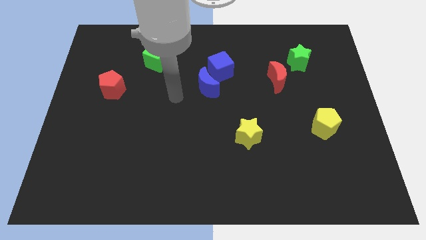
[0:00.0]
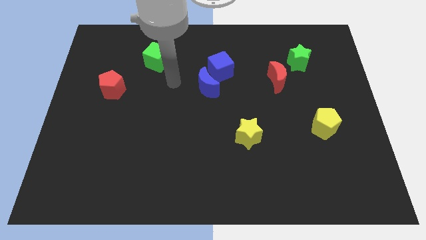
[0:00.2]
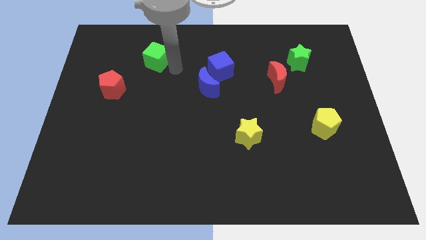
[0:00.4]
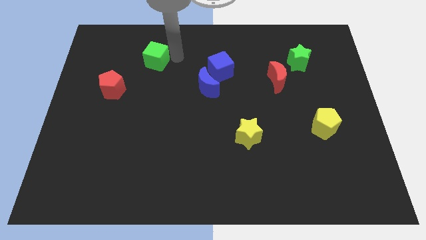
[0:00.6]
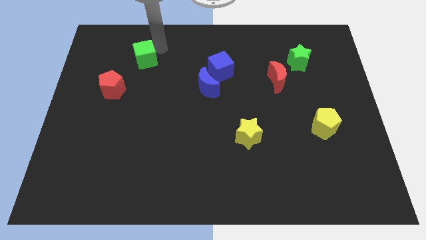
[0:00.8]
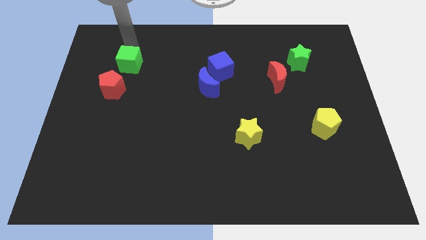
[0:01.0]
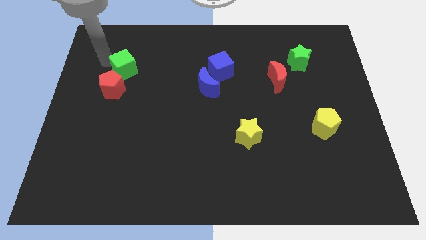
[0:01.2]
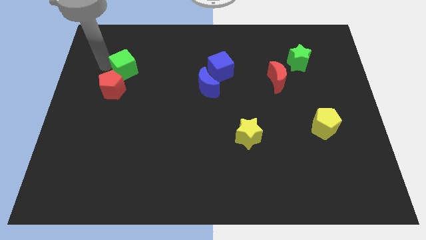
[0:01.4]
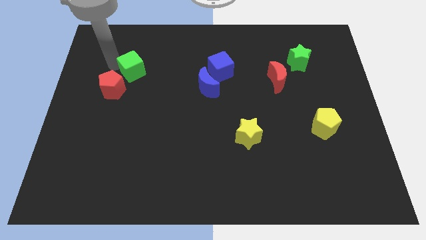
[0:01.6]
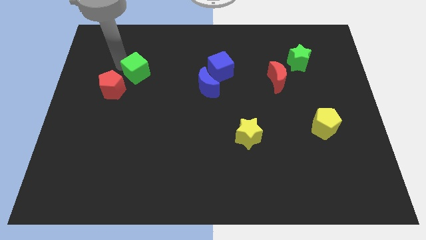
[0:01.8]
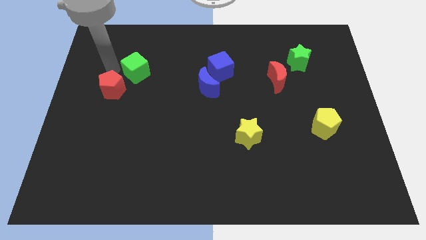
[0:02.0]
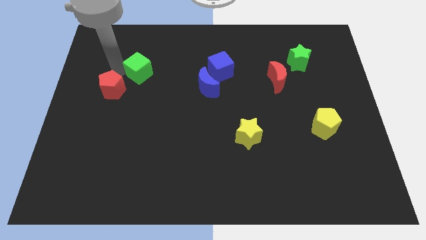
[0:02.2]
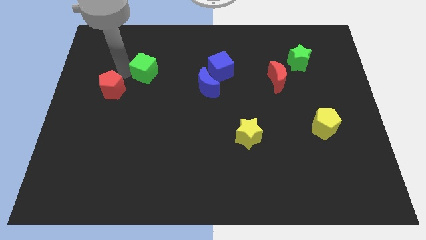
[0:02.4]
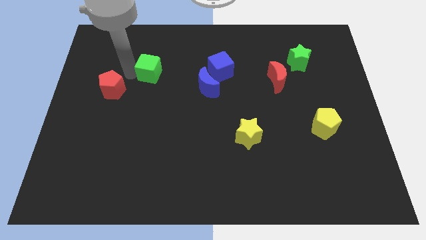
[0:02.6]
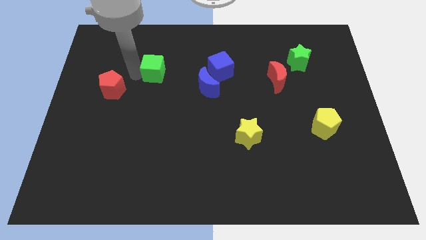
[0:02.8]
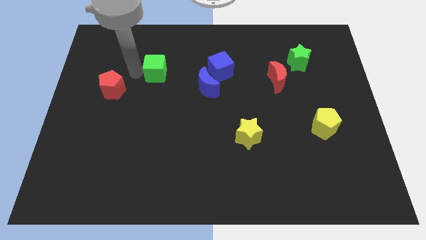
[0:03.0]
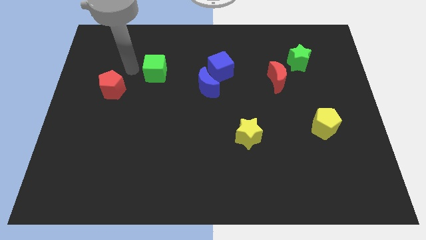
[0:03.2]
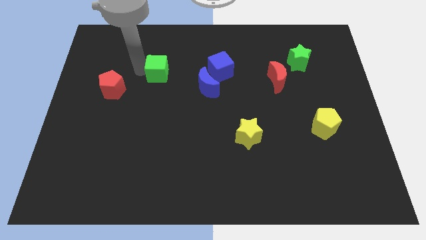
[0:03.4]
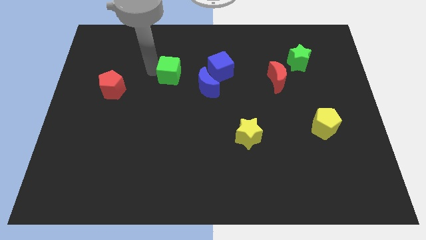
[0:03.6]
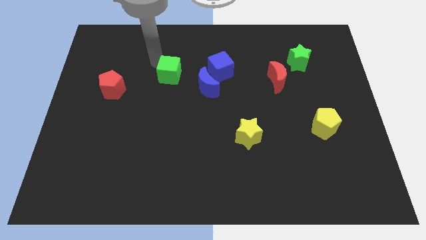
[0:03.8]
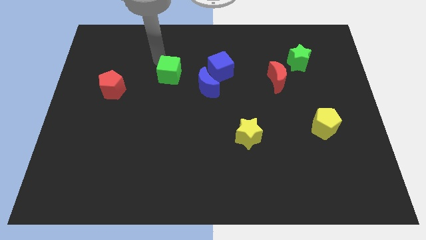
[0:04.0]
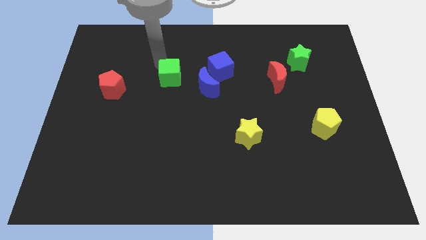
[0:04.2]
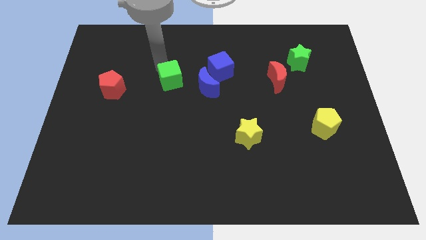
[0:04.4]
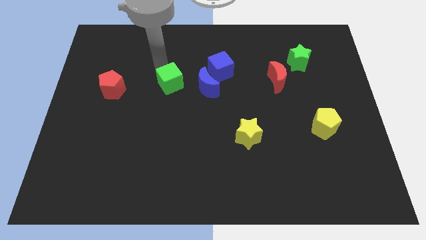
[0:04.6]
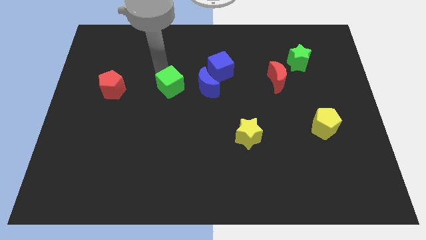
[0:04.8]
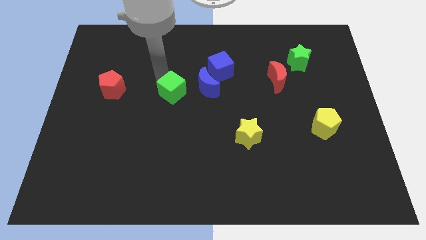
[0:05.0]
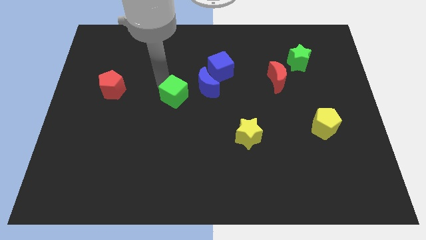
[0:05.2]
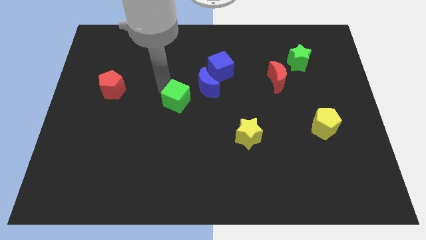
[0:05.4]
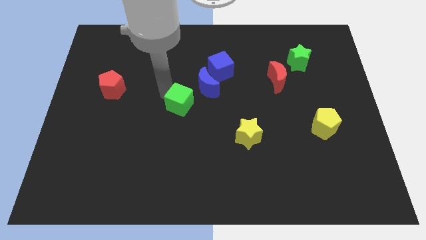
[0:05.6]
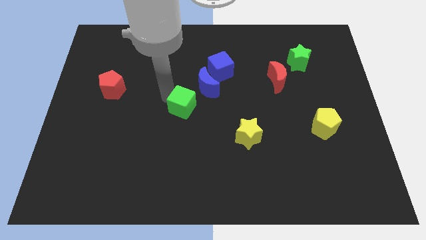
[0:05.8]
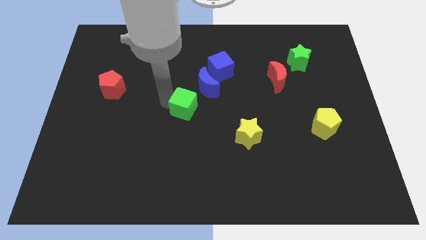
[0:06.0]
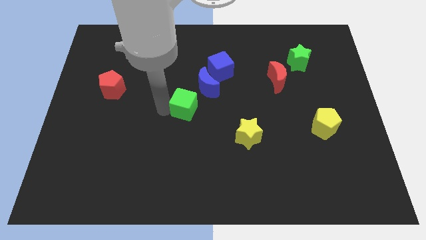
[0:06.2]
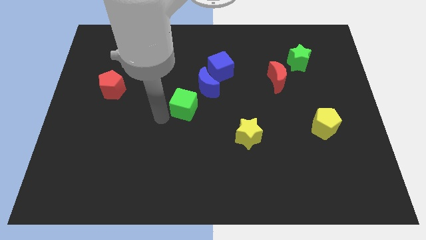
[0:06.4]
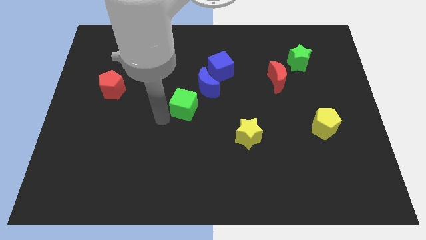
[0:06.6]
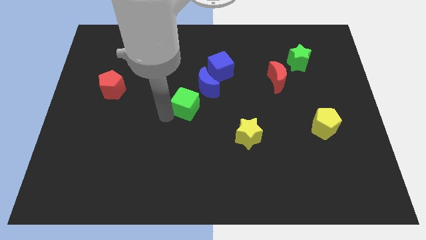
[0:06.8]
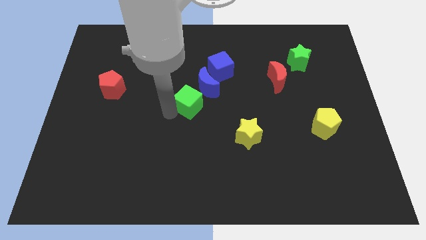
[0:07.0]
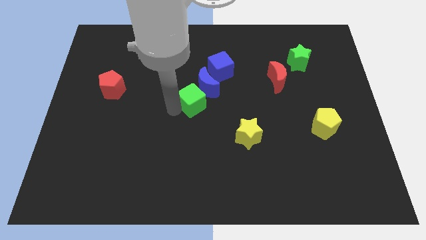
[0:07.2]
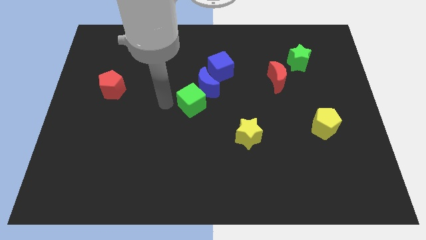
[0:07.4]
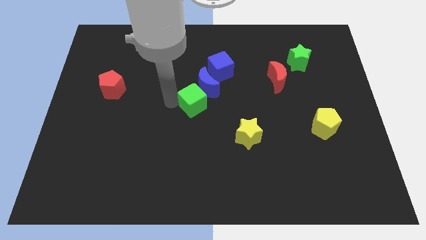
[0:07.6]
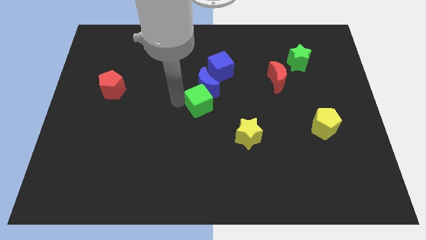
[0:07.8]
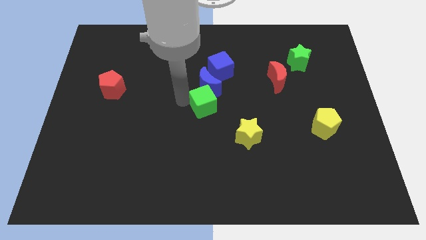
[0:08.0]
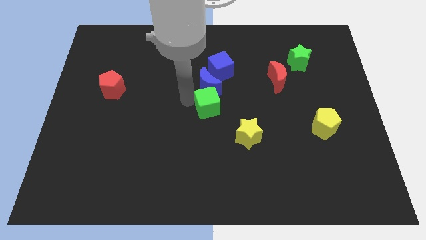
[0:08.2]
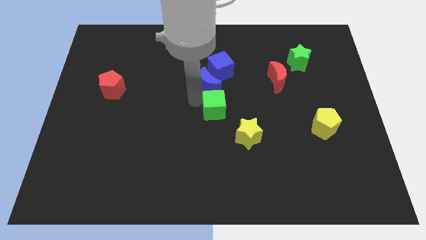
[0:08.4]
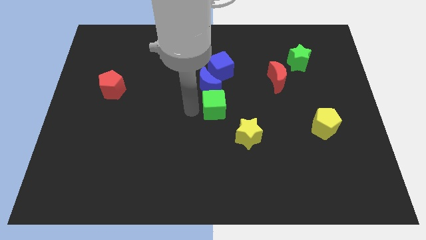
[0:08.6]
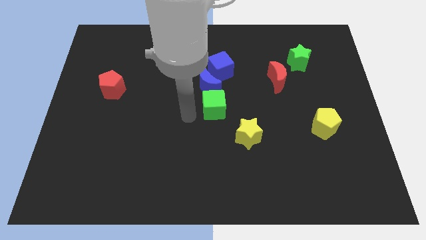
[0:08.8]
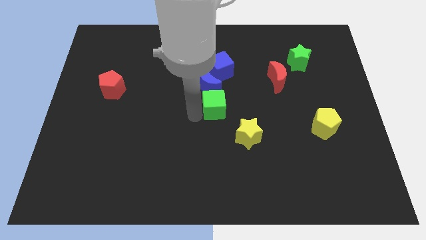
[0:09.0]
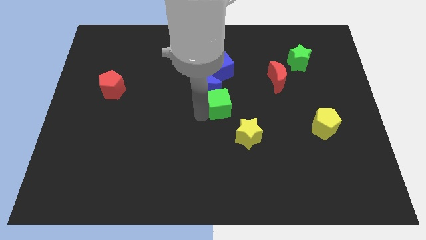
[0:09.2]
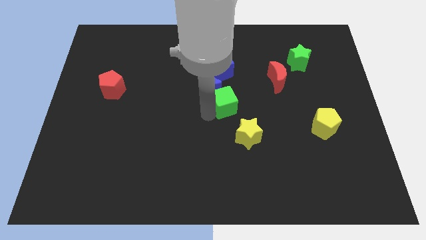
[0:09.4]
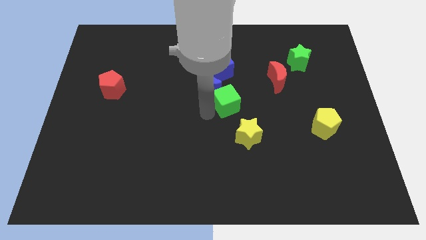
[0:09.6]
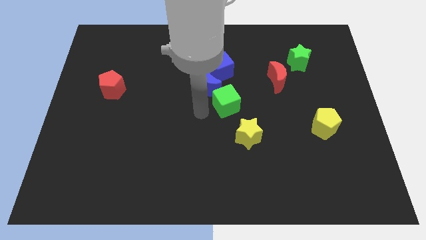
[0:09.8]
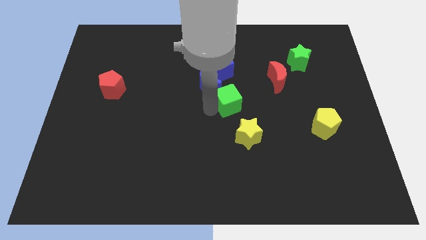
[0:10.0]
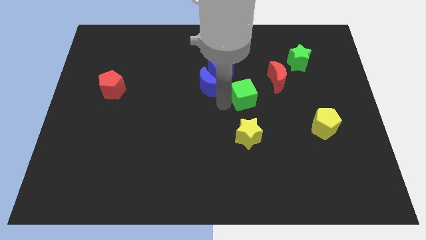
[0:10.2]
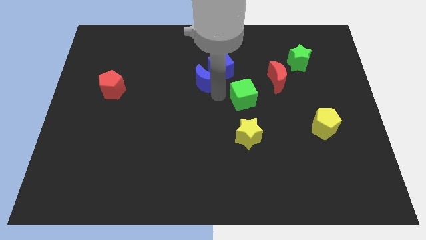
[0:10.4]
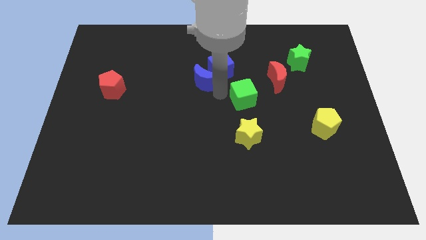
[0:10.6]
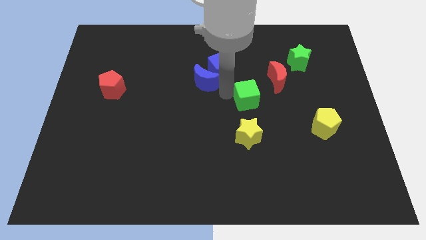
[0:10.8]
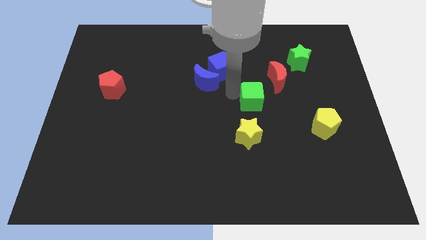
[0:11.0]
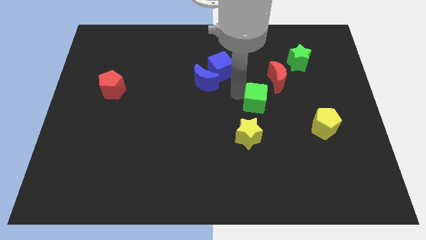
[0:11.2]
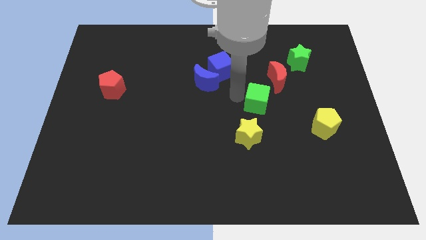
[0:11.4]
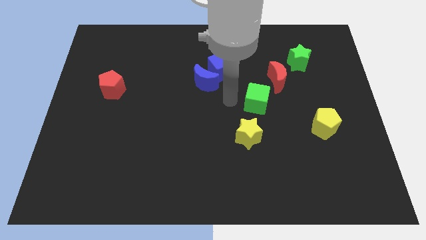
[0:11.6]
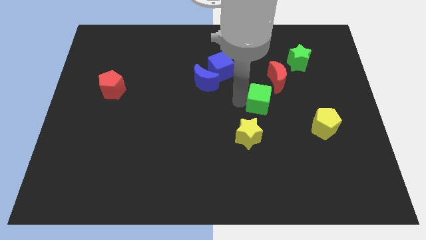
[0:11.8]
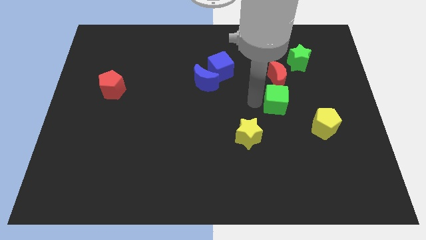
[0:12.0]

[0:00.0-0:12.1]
push the green cube to the top left of the yellow pentagon
